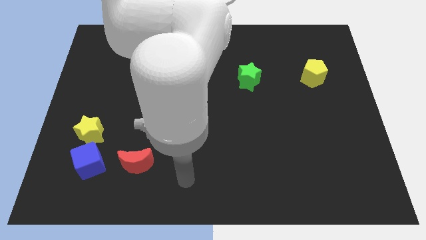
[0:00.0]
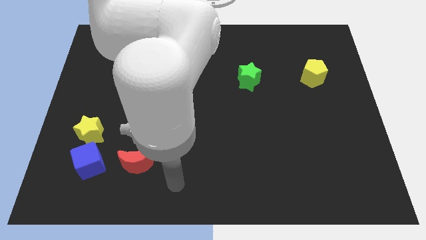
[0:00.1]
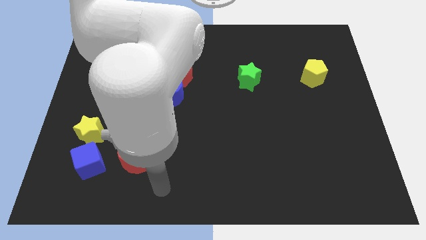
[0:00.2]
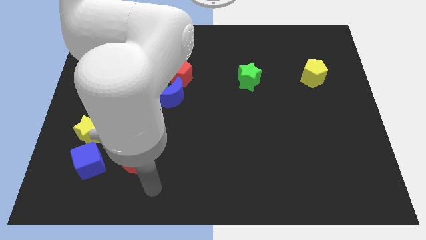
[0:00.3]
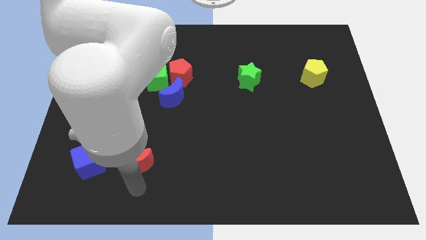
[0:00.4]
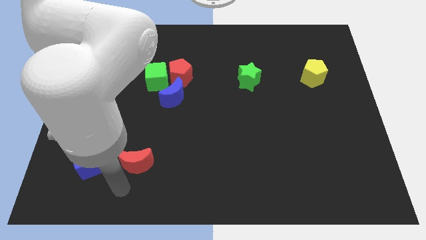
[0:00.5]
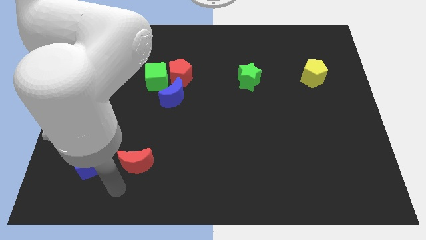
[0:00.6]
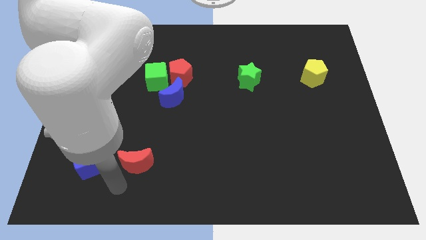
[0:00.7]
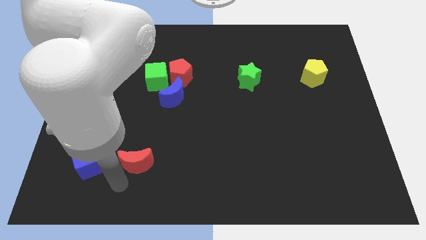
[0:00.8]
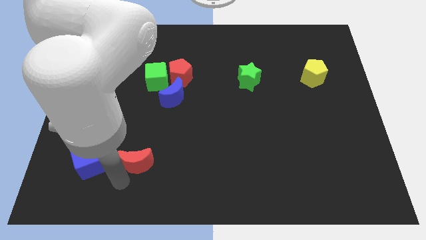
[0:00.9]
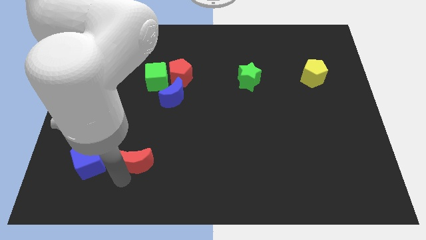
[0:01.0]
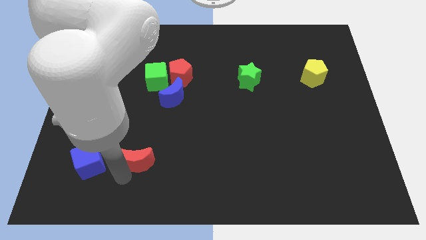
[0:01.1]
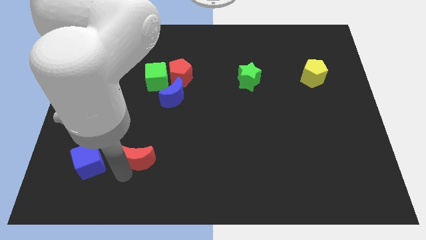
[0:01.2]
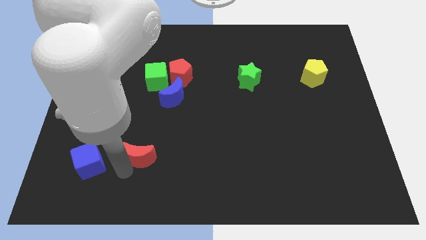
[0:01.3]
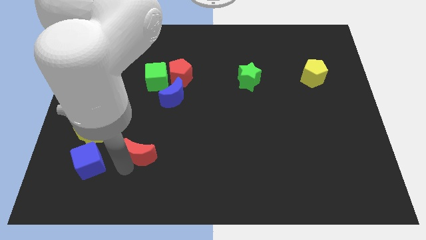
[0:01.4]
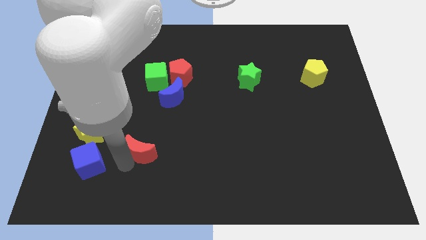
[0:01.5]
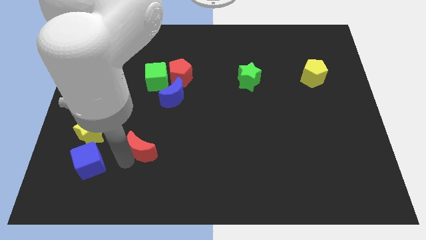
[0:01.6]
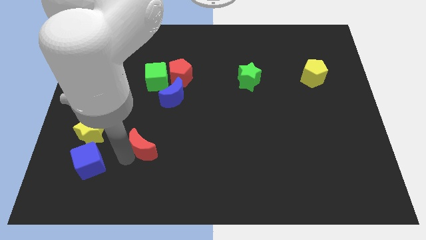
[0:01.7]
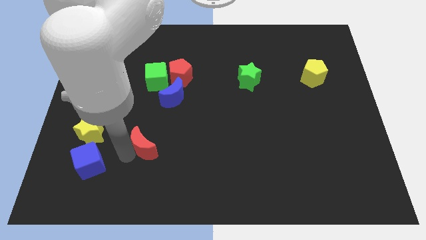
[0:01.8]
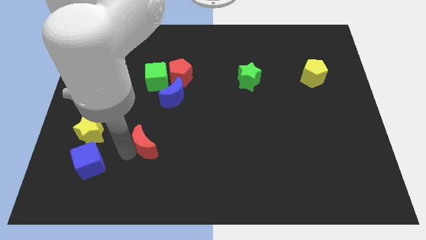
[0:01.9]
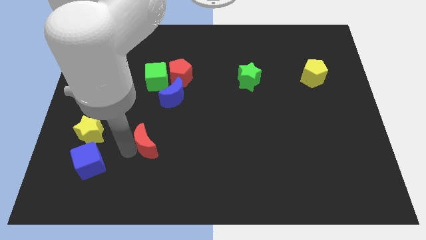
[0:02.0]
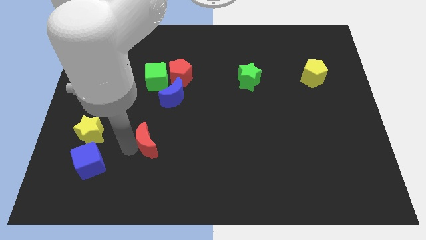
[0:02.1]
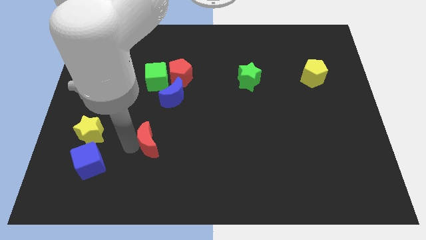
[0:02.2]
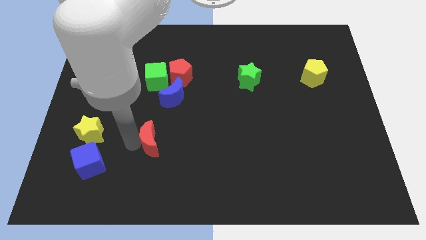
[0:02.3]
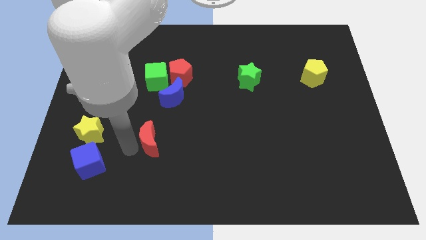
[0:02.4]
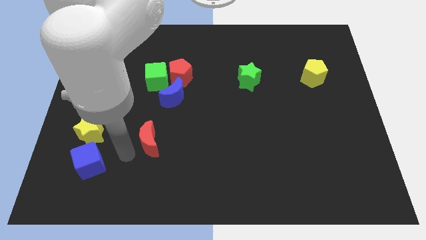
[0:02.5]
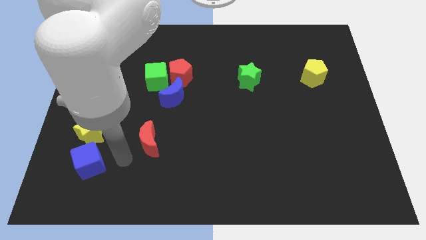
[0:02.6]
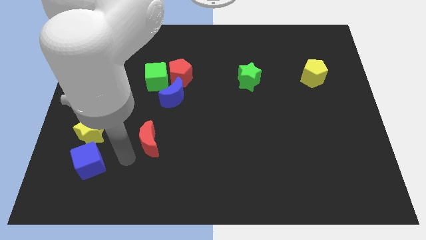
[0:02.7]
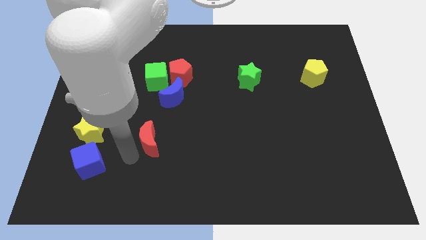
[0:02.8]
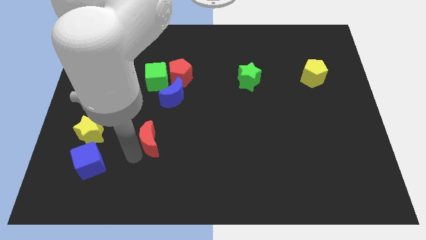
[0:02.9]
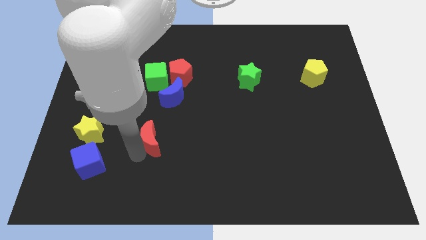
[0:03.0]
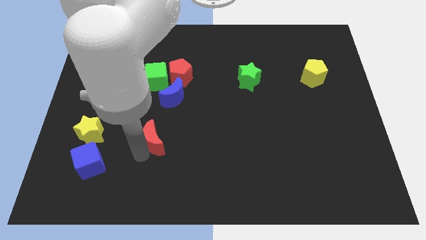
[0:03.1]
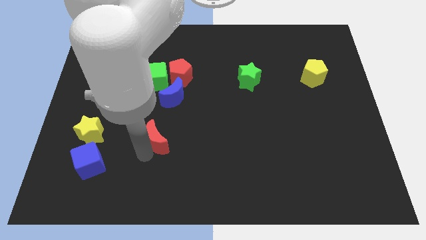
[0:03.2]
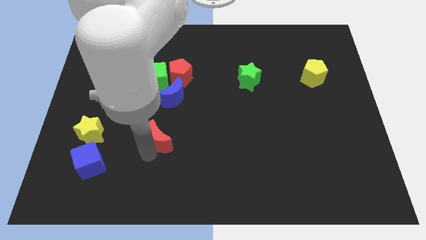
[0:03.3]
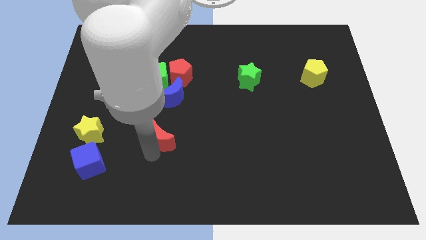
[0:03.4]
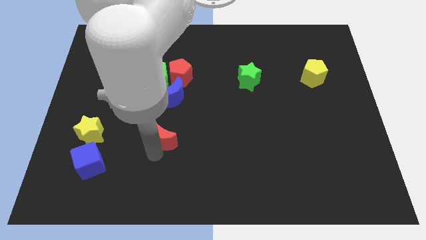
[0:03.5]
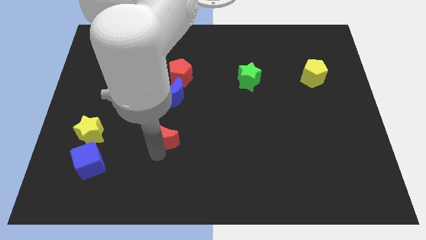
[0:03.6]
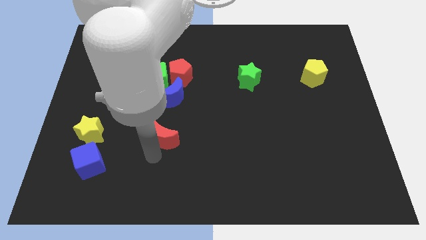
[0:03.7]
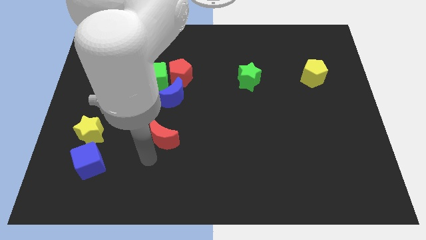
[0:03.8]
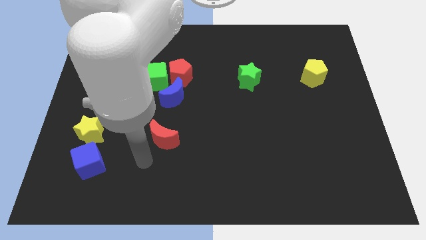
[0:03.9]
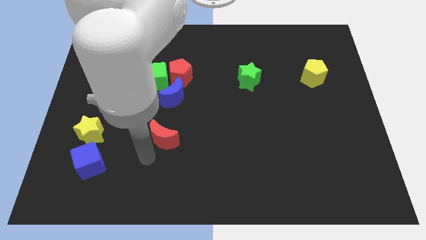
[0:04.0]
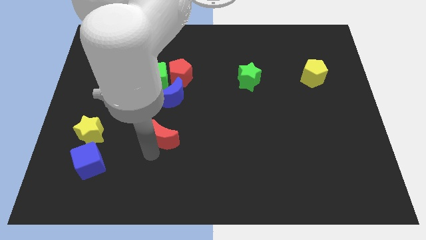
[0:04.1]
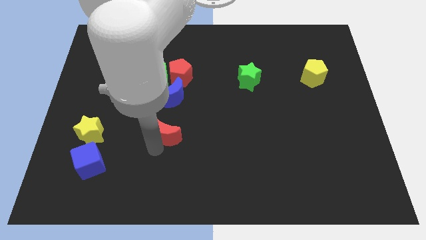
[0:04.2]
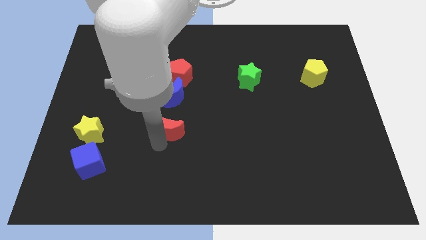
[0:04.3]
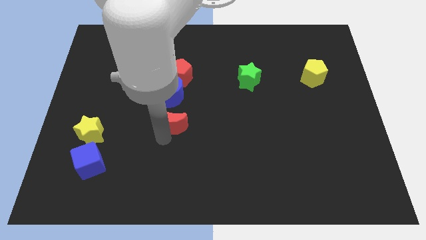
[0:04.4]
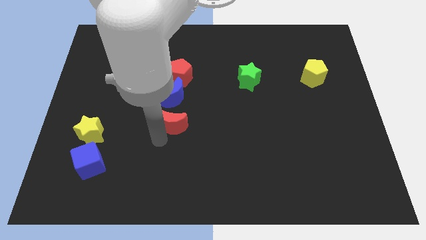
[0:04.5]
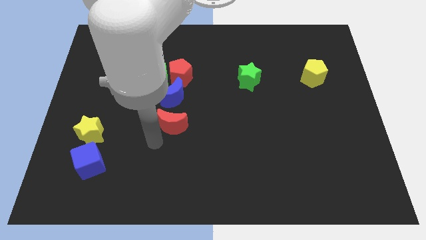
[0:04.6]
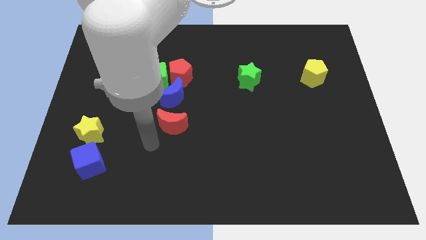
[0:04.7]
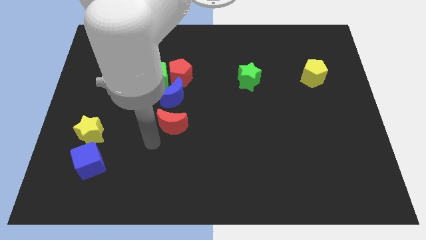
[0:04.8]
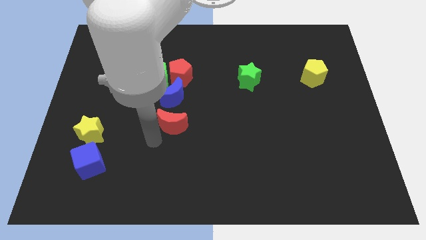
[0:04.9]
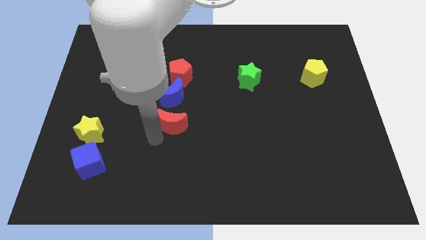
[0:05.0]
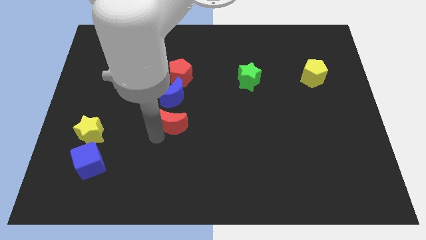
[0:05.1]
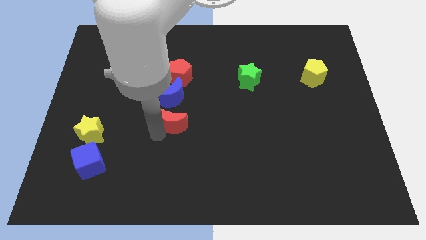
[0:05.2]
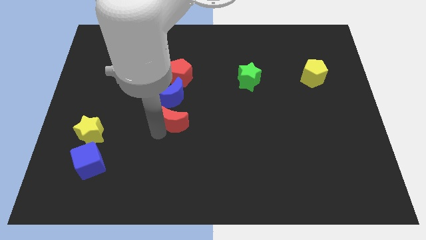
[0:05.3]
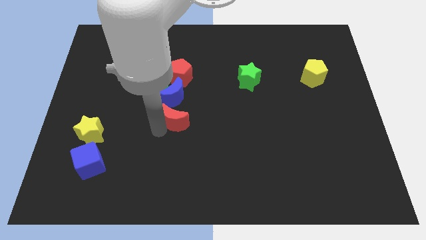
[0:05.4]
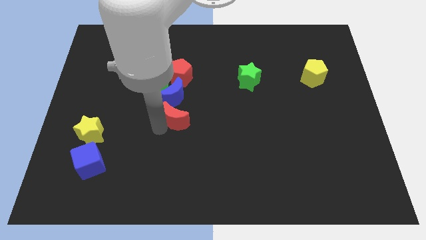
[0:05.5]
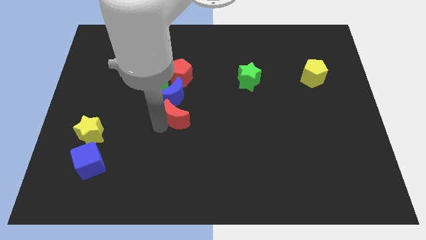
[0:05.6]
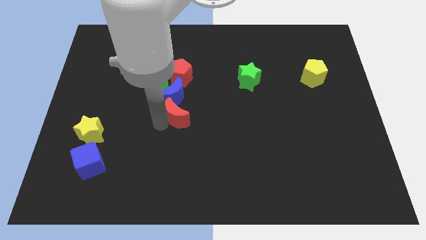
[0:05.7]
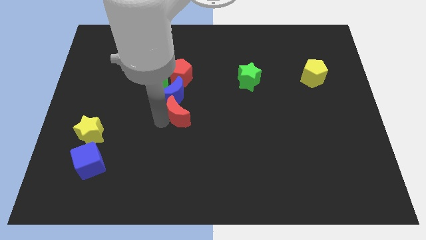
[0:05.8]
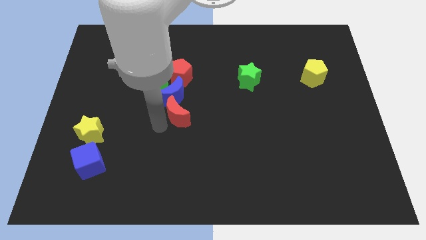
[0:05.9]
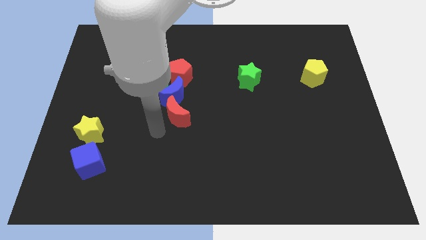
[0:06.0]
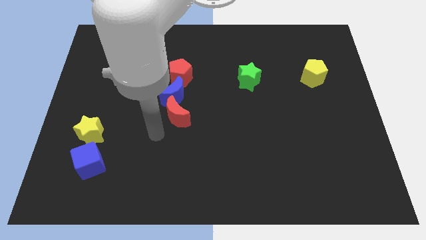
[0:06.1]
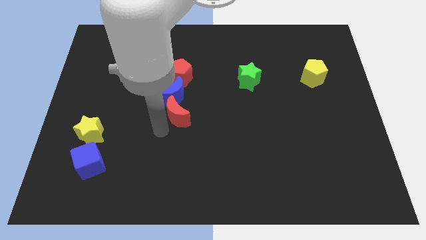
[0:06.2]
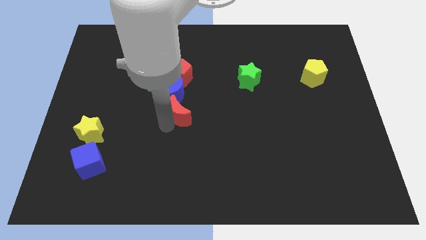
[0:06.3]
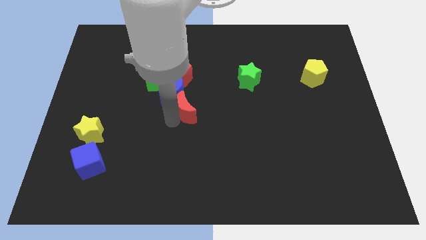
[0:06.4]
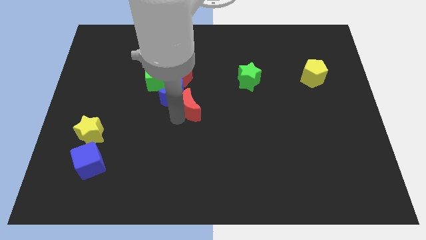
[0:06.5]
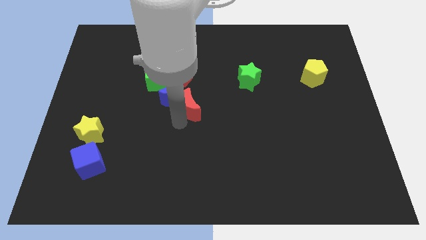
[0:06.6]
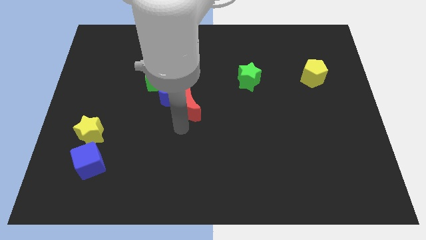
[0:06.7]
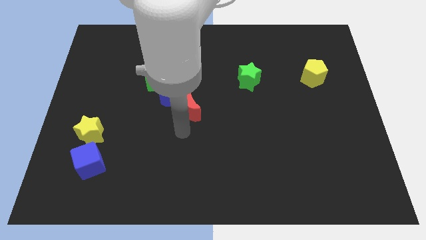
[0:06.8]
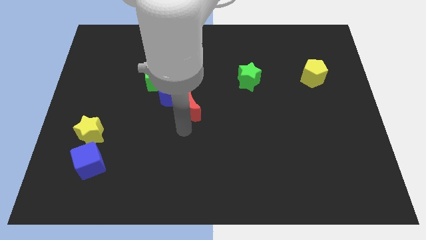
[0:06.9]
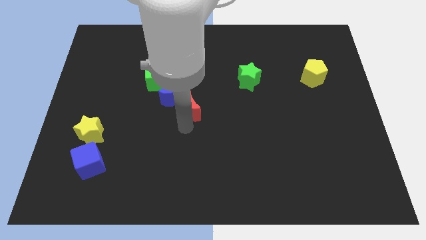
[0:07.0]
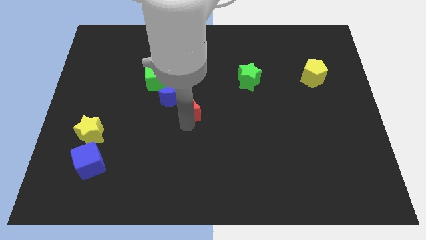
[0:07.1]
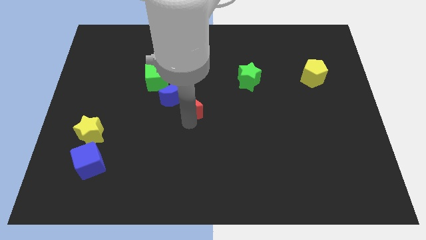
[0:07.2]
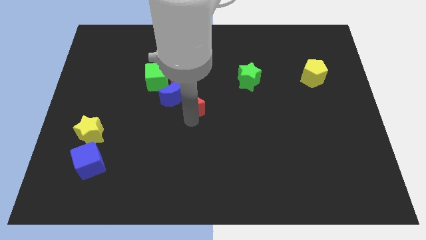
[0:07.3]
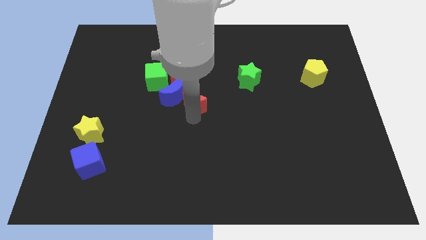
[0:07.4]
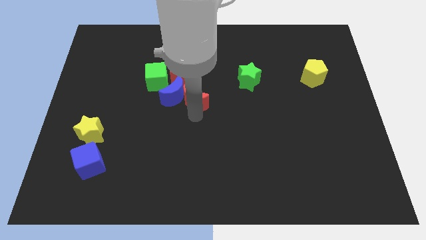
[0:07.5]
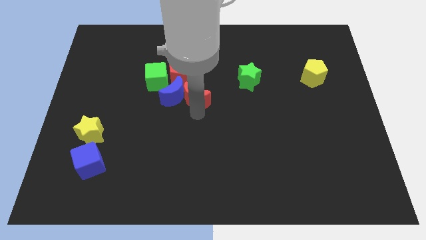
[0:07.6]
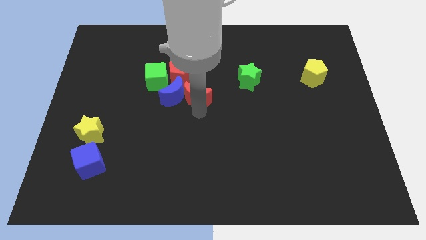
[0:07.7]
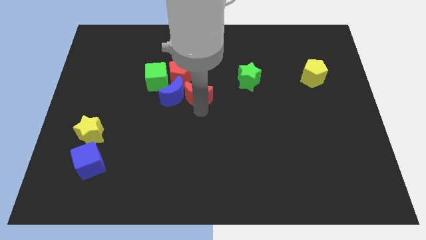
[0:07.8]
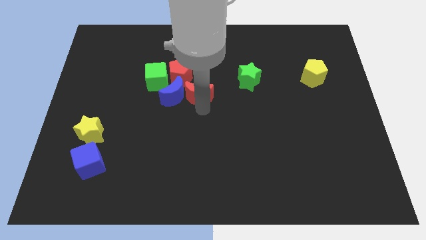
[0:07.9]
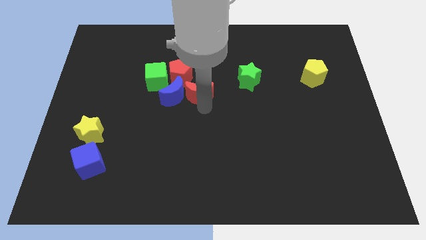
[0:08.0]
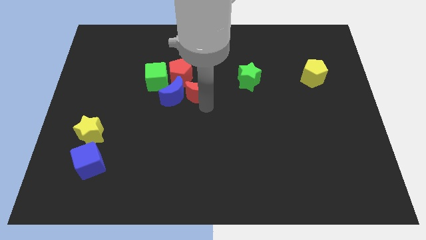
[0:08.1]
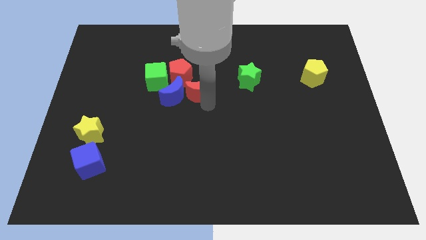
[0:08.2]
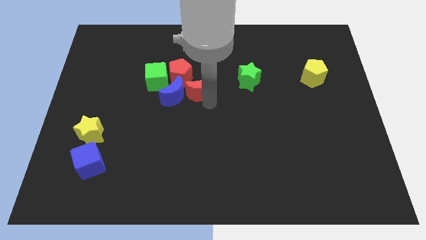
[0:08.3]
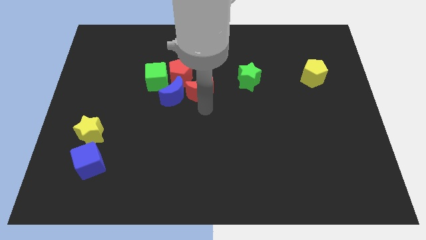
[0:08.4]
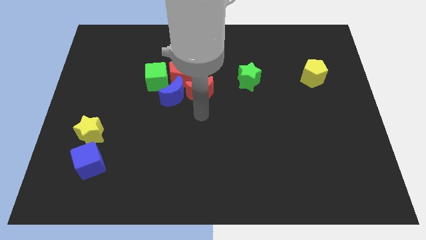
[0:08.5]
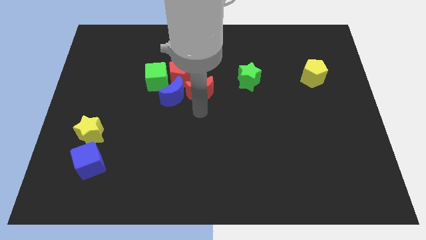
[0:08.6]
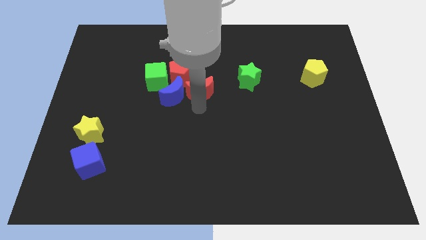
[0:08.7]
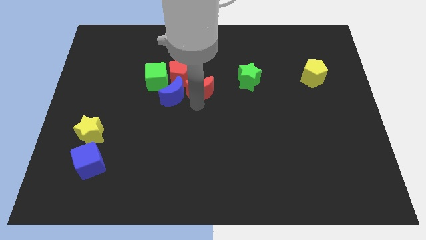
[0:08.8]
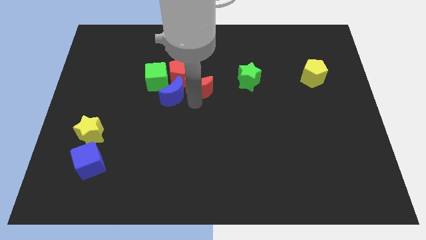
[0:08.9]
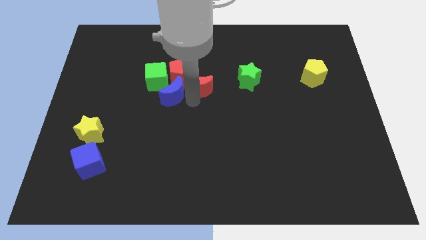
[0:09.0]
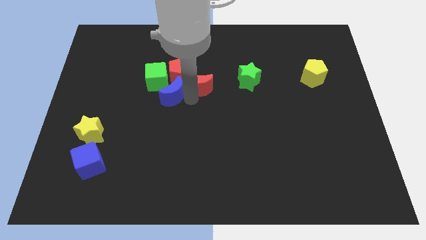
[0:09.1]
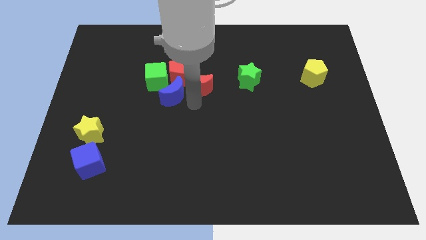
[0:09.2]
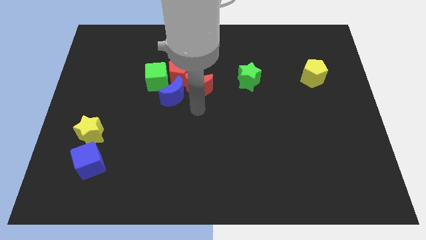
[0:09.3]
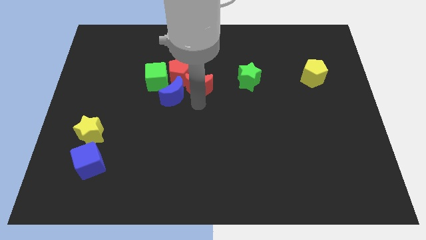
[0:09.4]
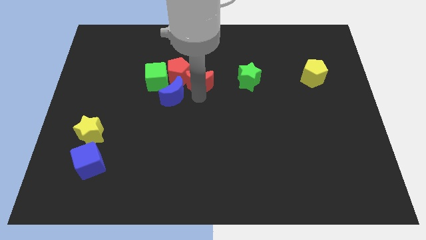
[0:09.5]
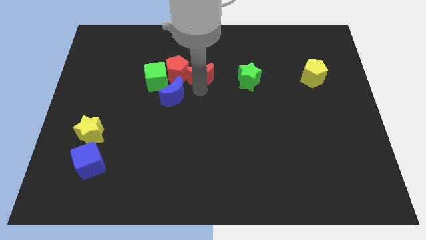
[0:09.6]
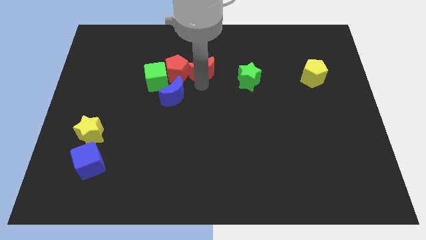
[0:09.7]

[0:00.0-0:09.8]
push the red moon to the top right side of the red pentagon
